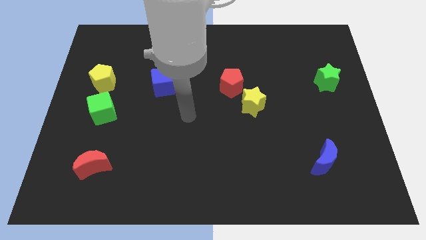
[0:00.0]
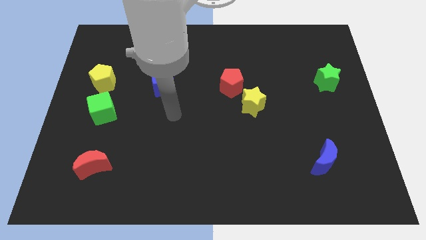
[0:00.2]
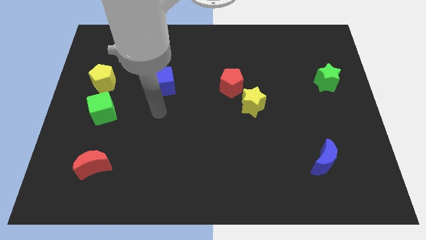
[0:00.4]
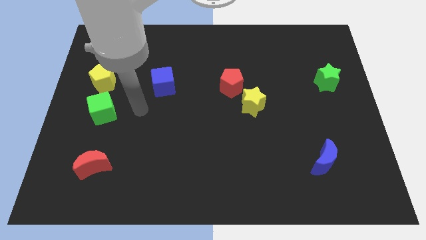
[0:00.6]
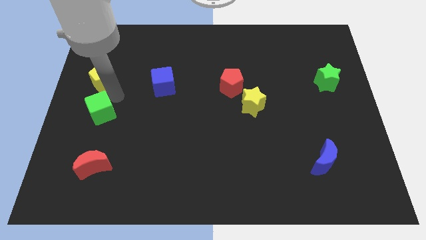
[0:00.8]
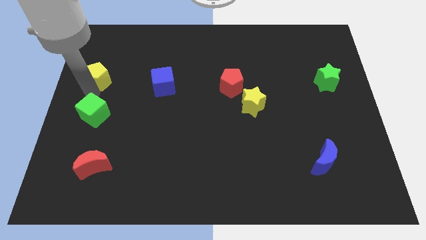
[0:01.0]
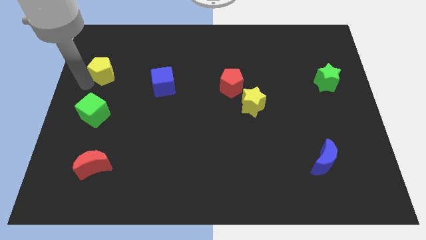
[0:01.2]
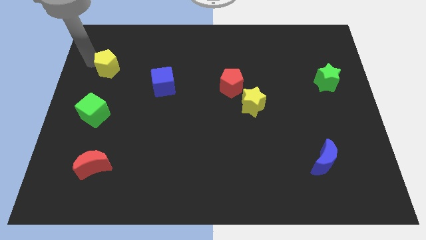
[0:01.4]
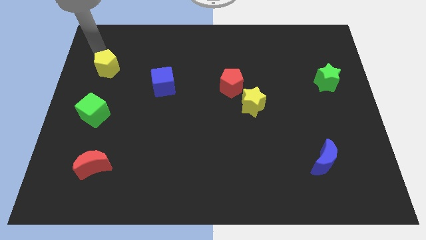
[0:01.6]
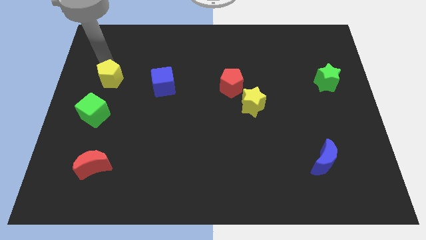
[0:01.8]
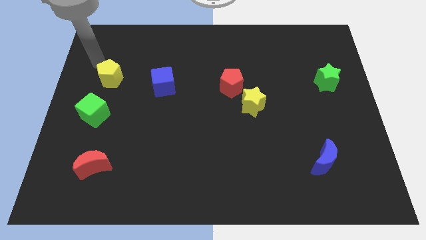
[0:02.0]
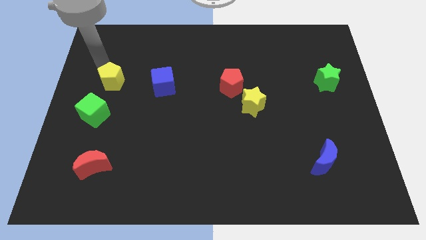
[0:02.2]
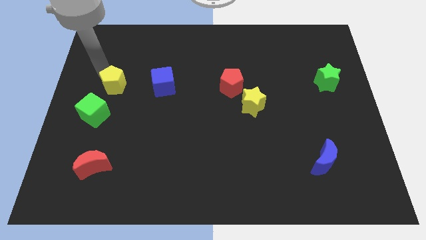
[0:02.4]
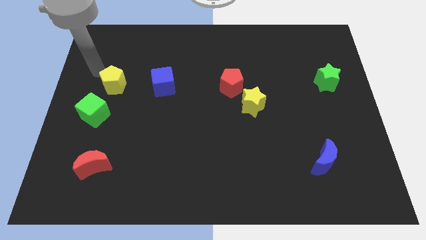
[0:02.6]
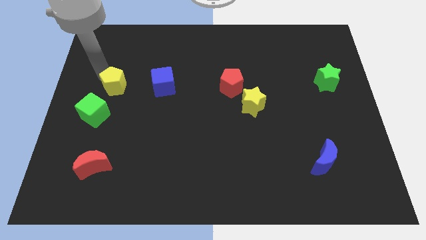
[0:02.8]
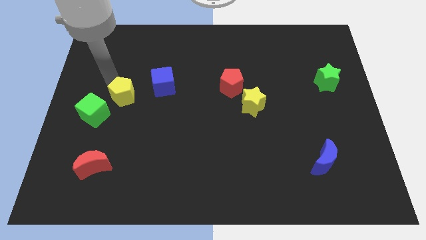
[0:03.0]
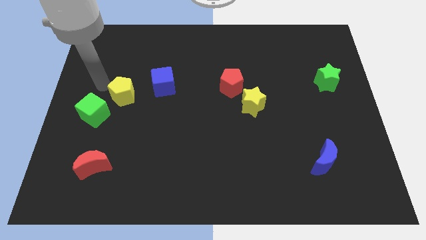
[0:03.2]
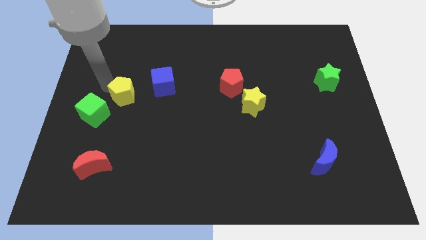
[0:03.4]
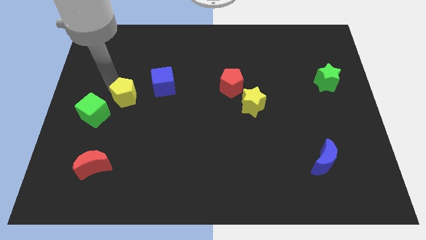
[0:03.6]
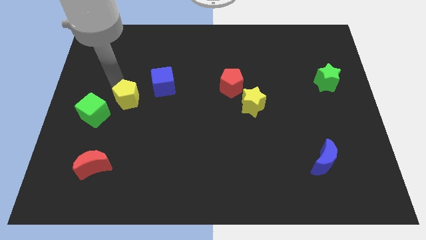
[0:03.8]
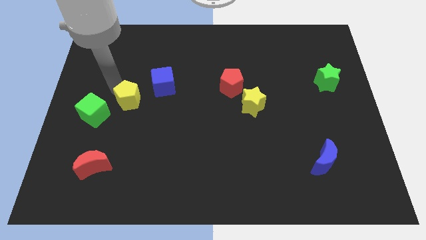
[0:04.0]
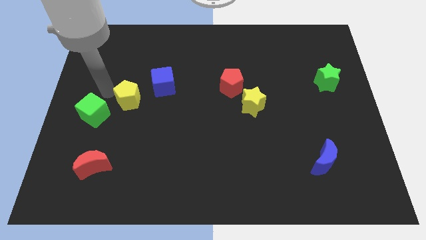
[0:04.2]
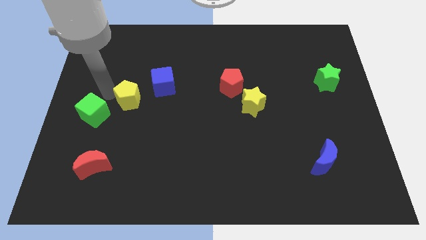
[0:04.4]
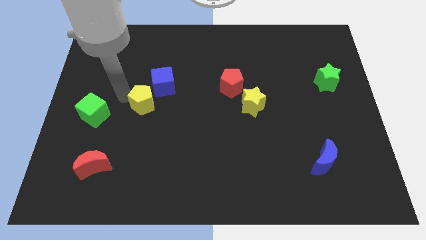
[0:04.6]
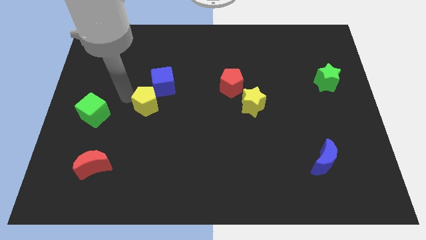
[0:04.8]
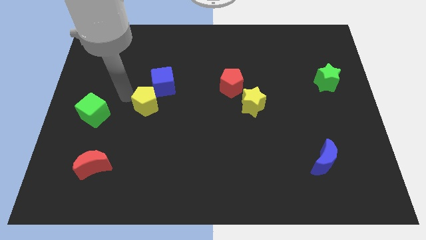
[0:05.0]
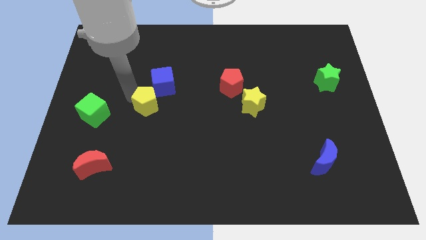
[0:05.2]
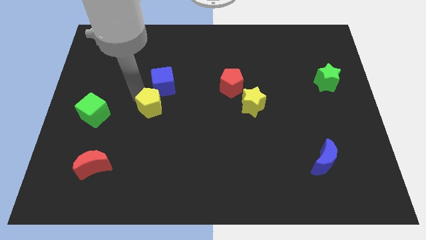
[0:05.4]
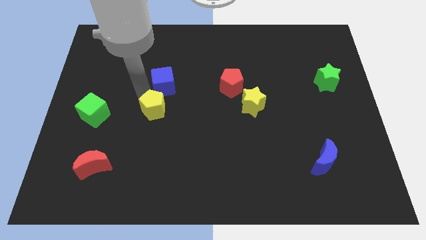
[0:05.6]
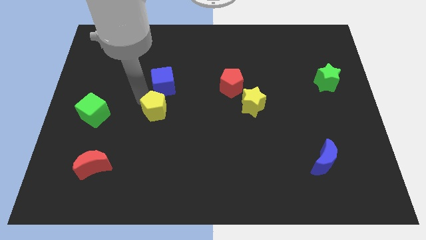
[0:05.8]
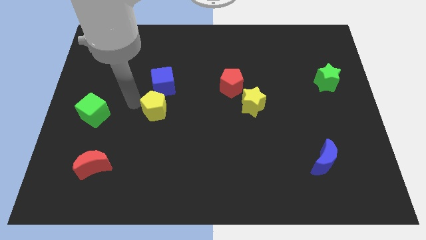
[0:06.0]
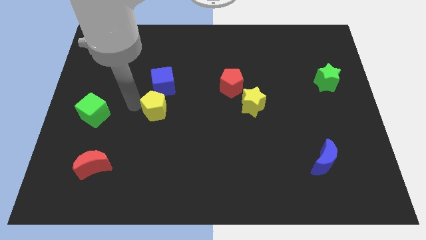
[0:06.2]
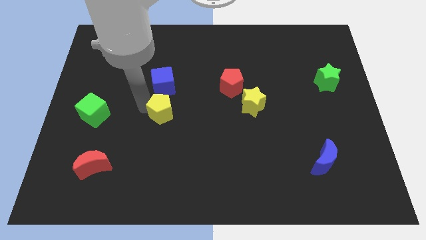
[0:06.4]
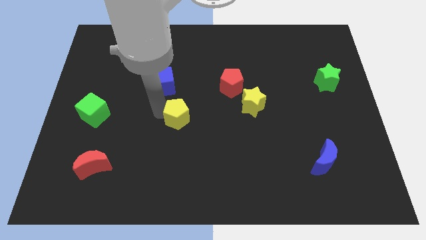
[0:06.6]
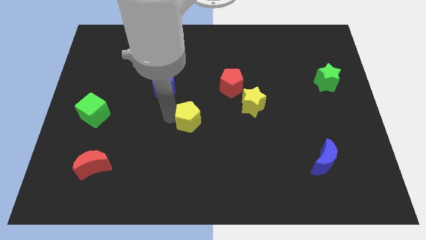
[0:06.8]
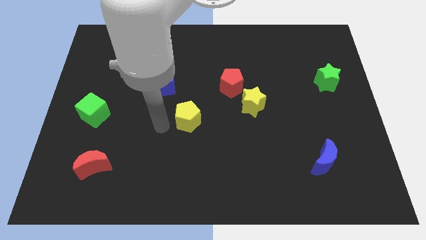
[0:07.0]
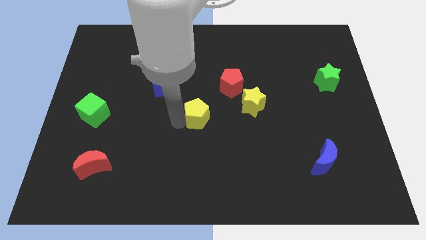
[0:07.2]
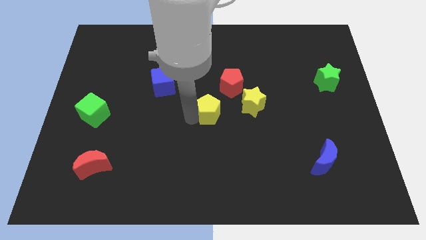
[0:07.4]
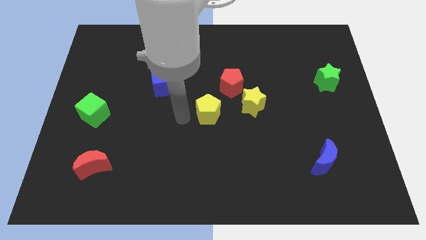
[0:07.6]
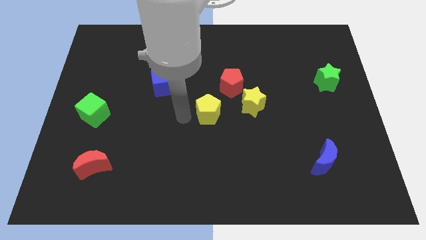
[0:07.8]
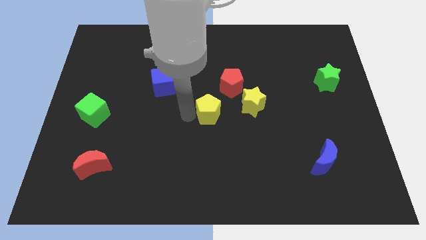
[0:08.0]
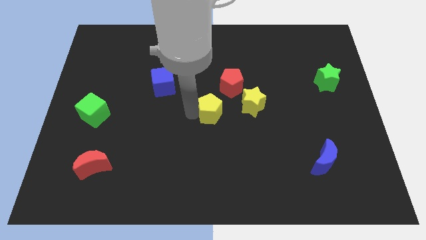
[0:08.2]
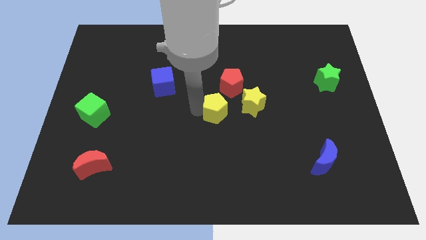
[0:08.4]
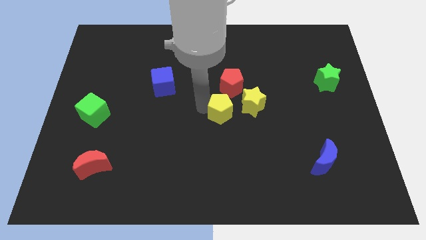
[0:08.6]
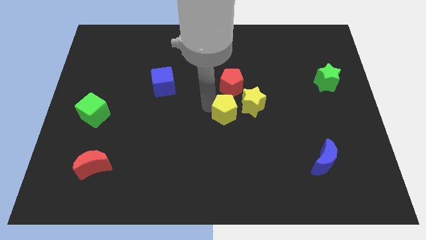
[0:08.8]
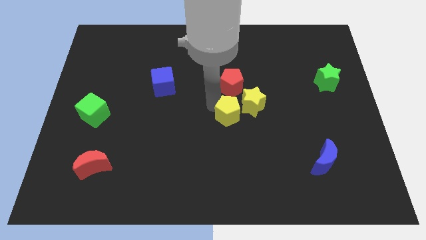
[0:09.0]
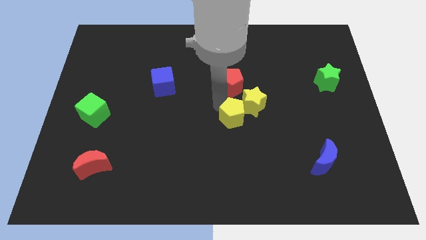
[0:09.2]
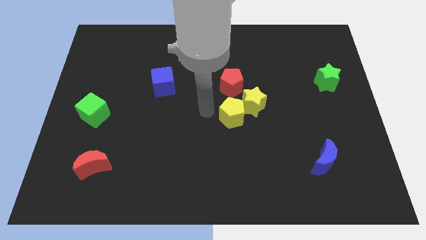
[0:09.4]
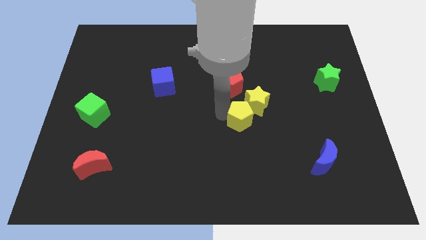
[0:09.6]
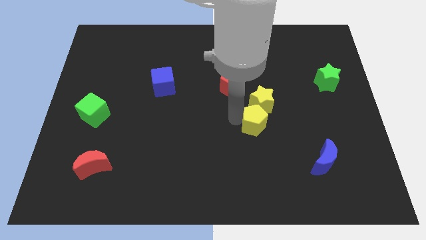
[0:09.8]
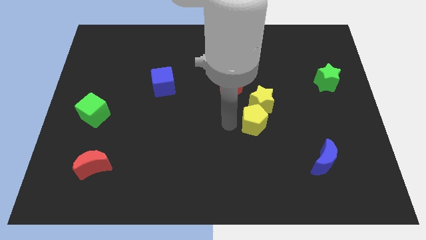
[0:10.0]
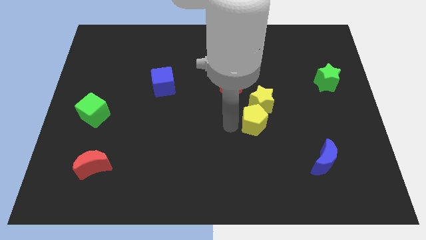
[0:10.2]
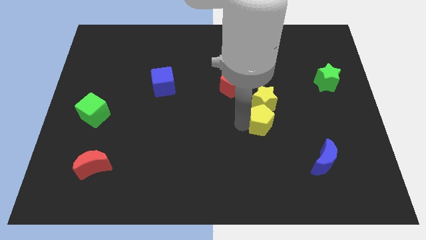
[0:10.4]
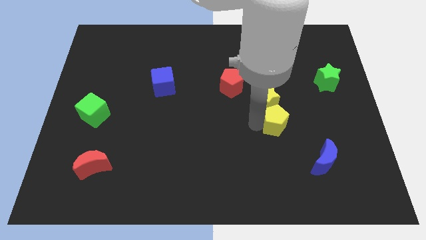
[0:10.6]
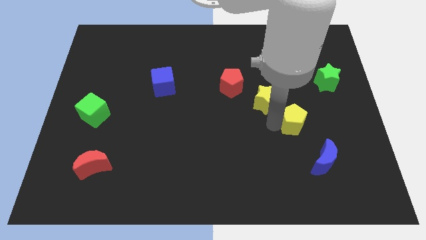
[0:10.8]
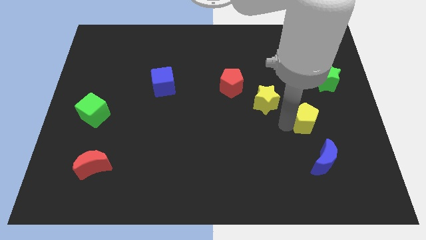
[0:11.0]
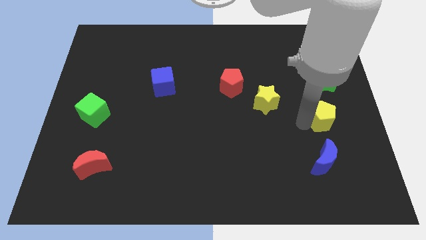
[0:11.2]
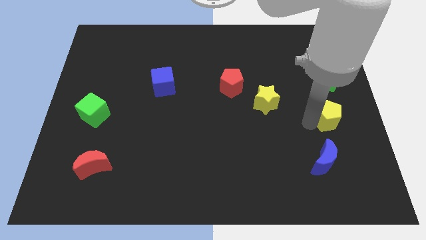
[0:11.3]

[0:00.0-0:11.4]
slide the yellow pentagon to the right side of the board

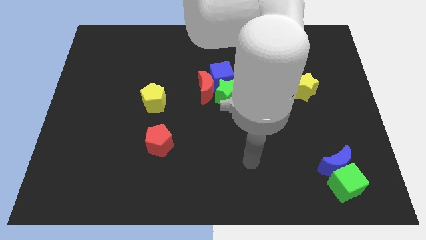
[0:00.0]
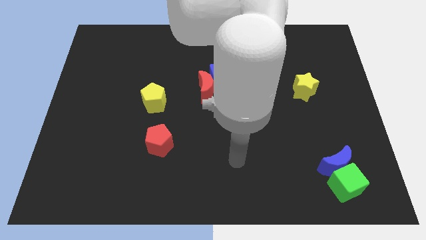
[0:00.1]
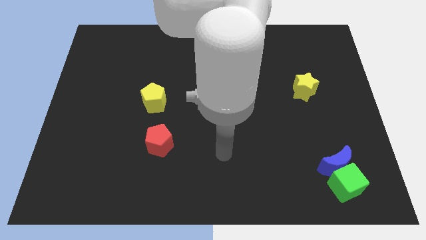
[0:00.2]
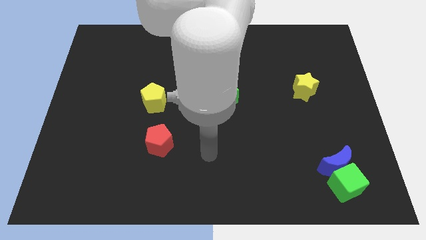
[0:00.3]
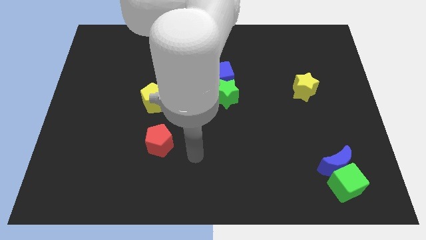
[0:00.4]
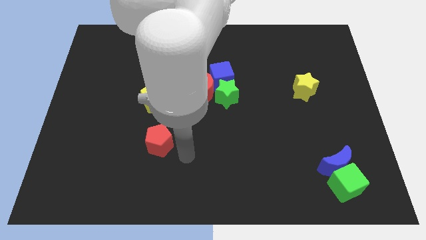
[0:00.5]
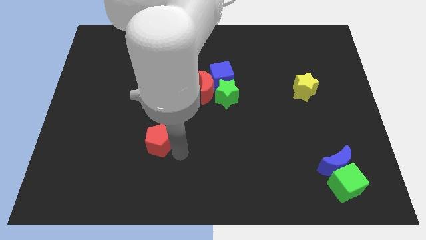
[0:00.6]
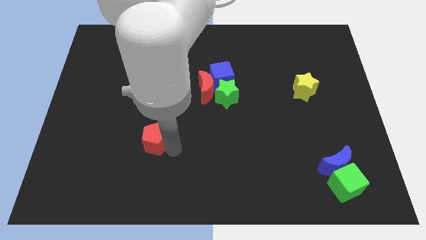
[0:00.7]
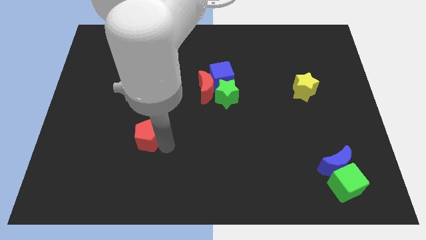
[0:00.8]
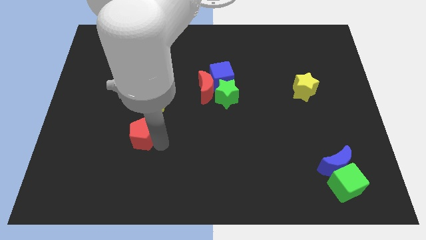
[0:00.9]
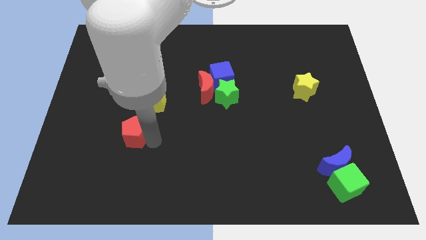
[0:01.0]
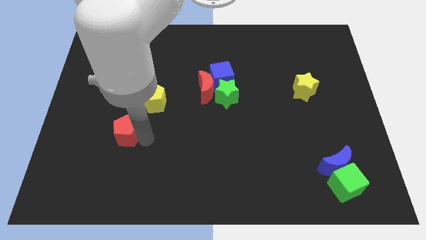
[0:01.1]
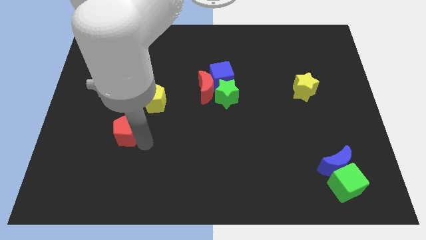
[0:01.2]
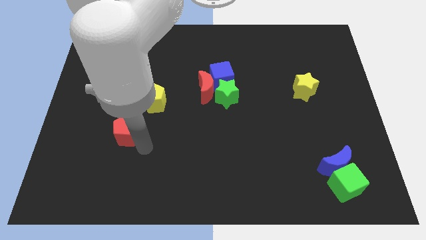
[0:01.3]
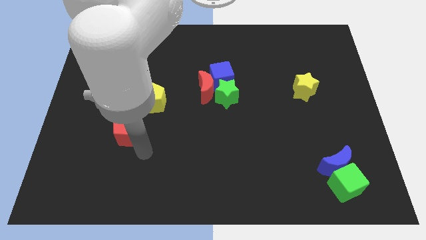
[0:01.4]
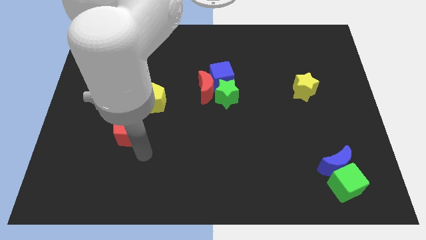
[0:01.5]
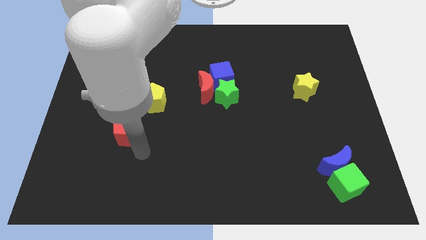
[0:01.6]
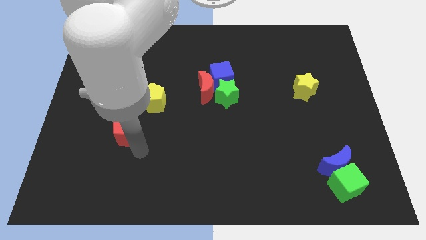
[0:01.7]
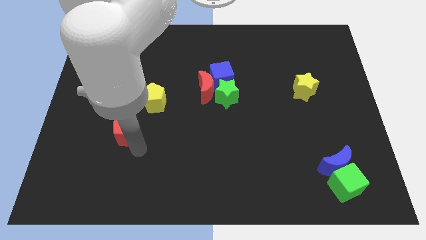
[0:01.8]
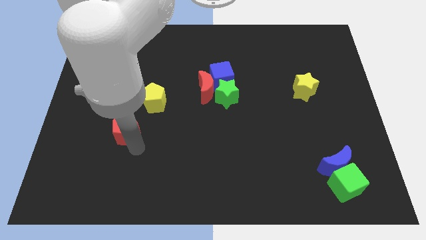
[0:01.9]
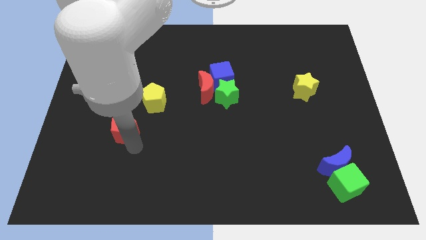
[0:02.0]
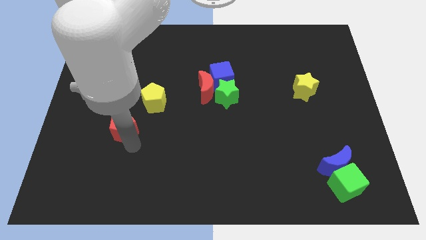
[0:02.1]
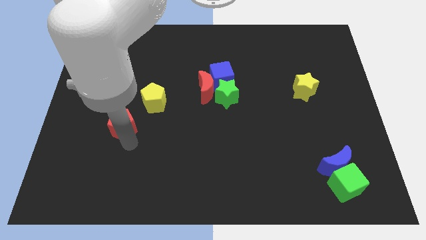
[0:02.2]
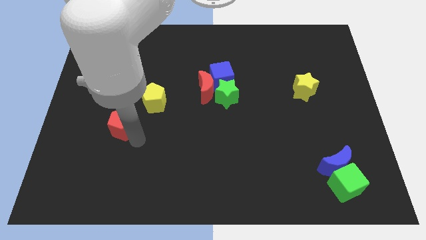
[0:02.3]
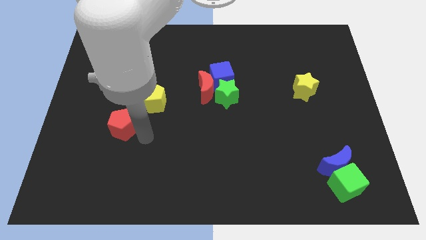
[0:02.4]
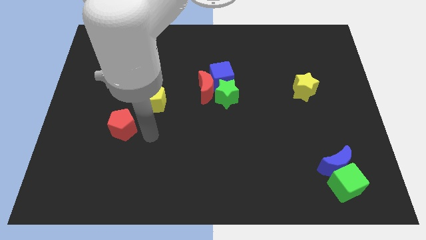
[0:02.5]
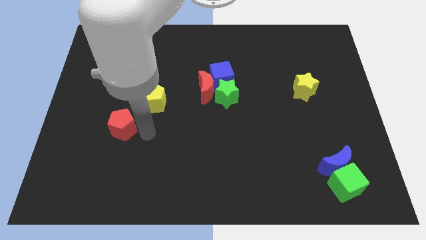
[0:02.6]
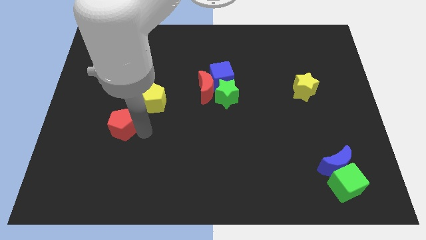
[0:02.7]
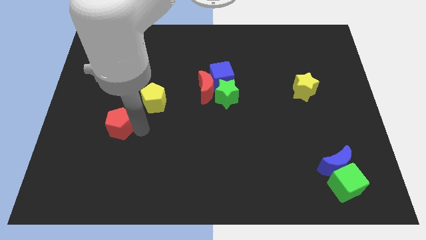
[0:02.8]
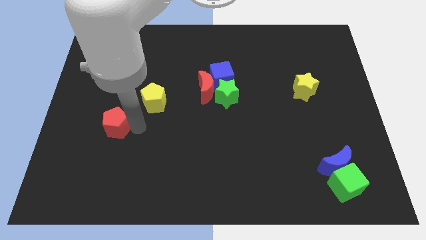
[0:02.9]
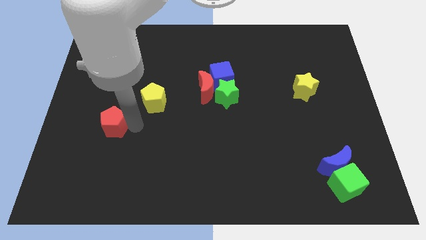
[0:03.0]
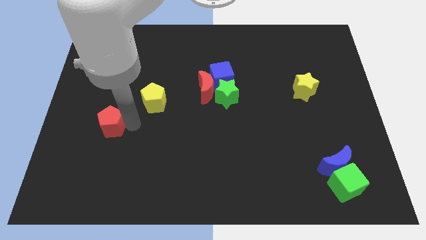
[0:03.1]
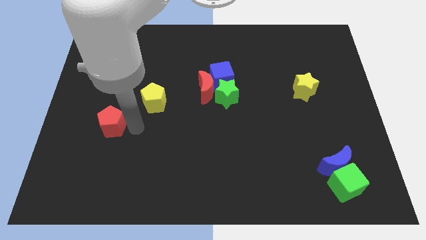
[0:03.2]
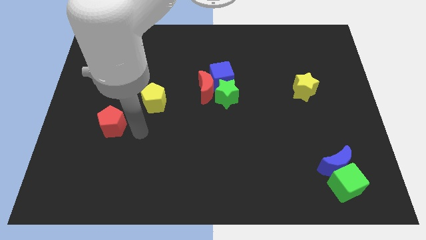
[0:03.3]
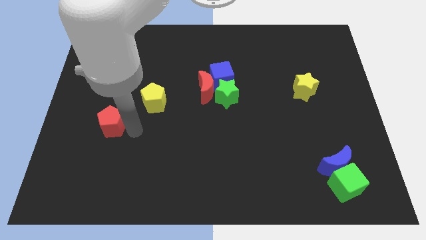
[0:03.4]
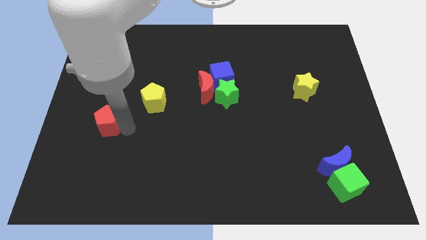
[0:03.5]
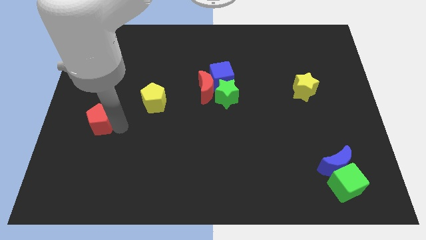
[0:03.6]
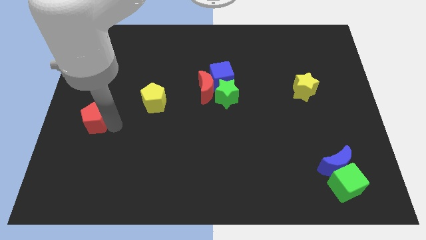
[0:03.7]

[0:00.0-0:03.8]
slide the red pentagon to the center left
